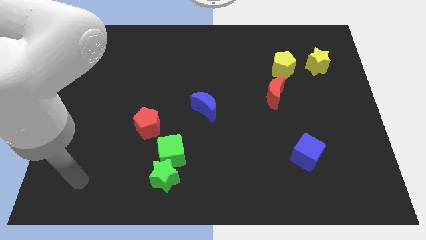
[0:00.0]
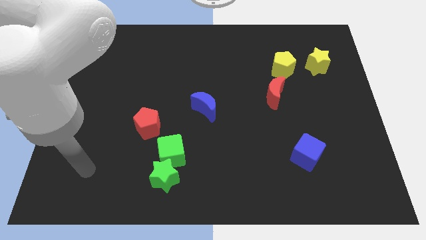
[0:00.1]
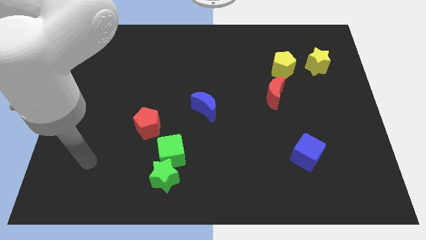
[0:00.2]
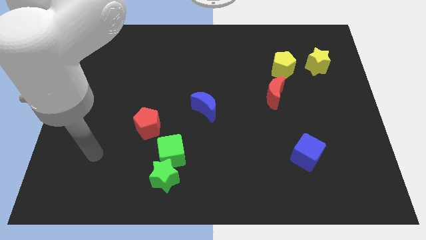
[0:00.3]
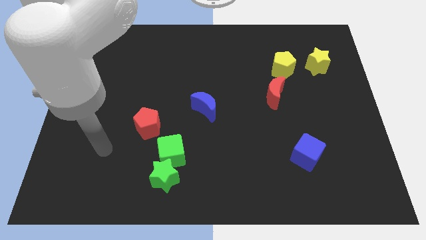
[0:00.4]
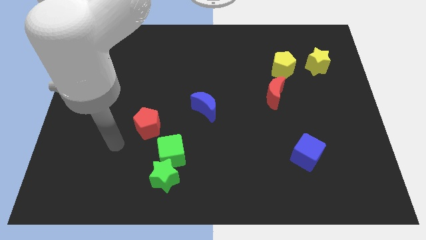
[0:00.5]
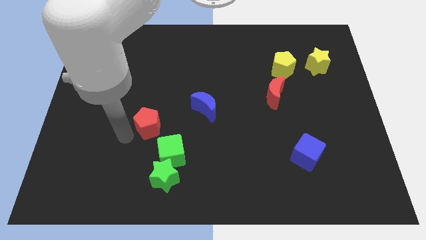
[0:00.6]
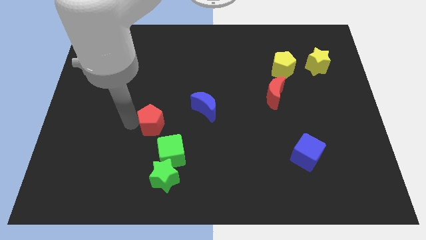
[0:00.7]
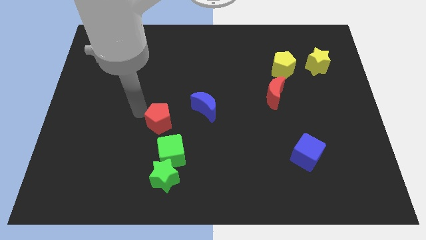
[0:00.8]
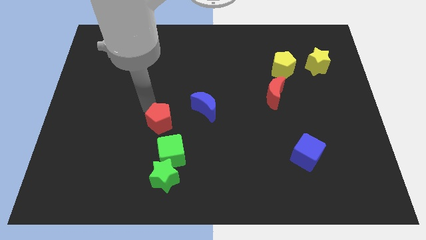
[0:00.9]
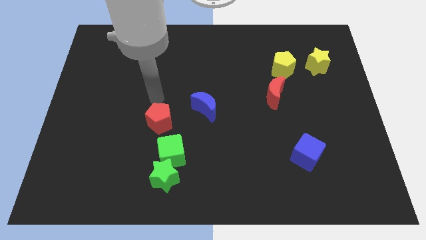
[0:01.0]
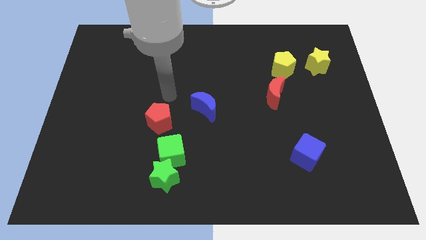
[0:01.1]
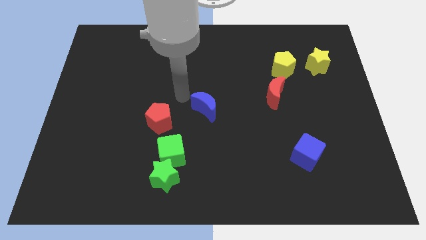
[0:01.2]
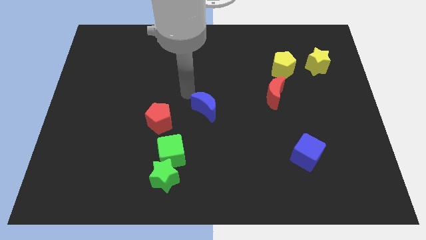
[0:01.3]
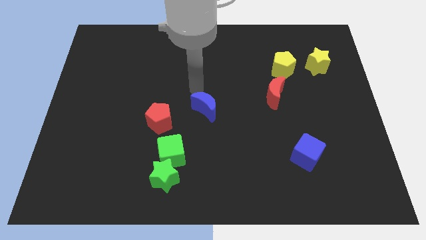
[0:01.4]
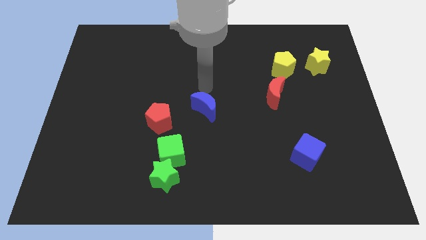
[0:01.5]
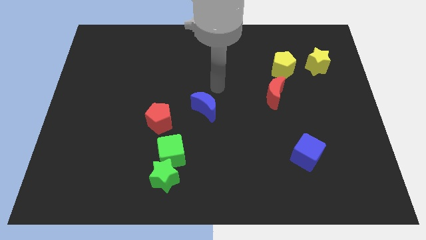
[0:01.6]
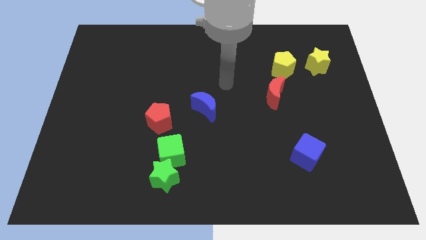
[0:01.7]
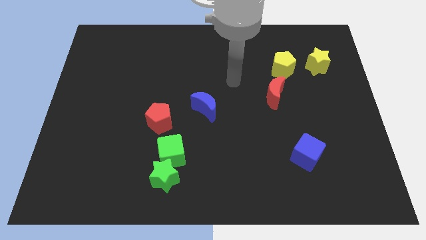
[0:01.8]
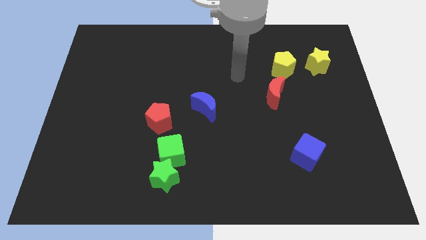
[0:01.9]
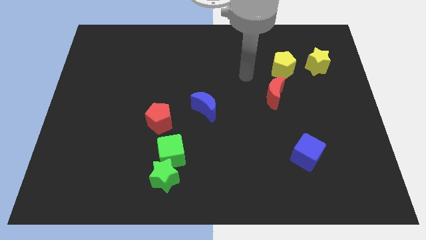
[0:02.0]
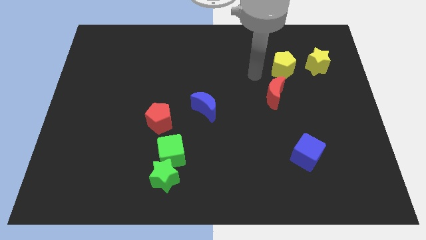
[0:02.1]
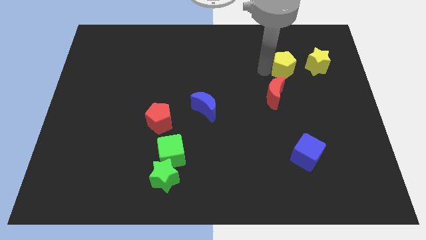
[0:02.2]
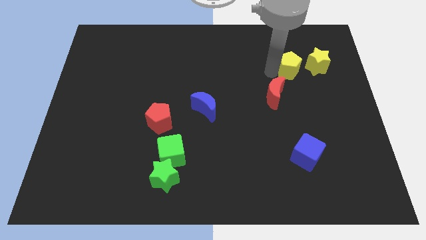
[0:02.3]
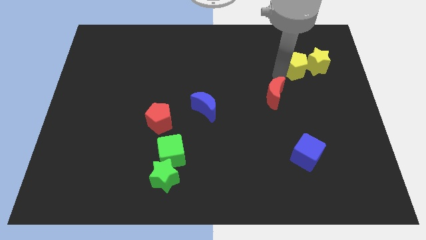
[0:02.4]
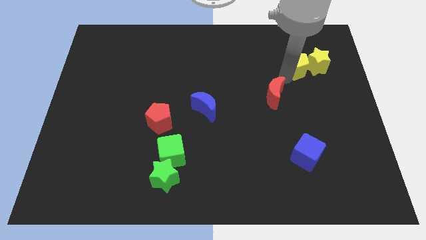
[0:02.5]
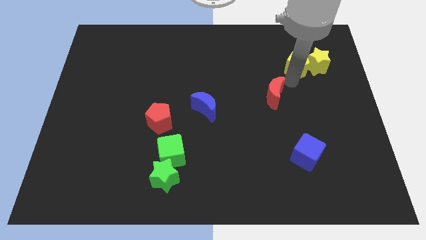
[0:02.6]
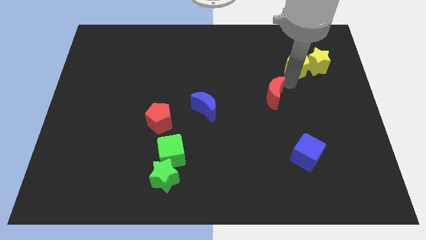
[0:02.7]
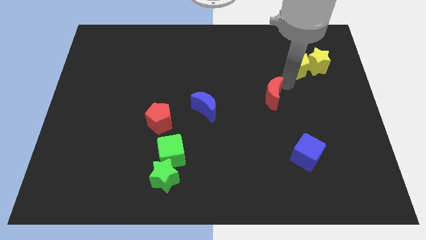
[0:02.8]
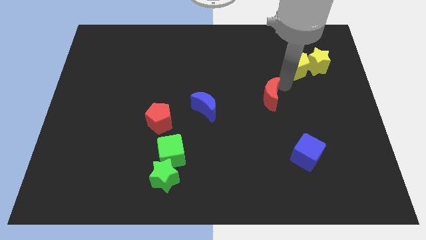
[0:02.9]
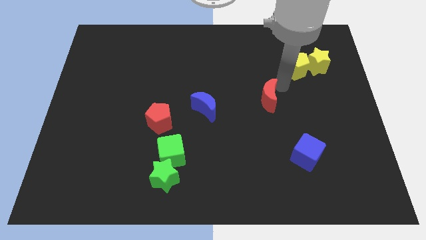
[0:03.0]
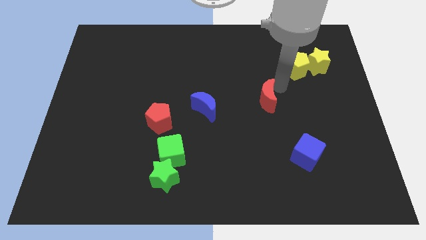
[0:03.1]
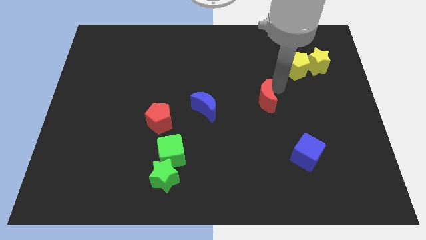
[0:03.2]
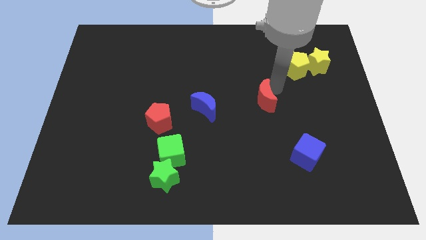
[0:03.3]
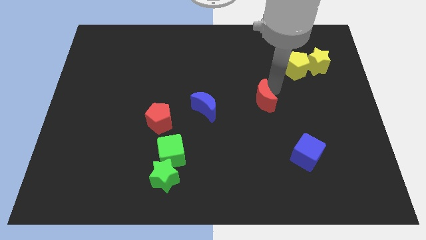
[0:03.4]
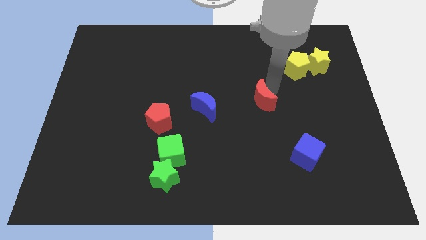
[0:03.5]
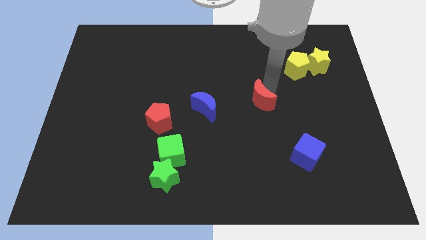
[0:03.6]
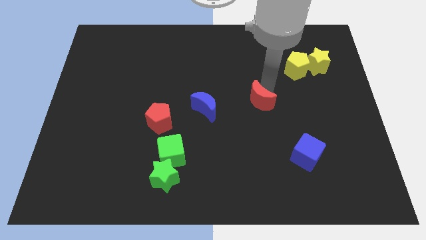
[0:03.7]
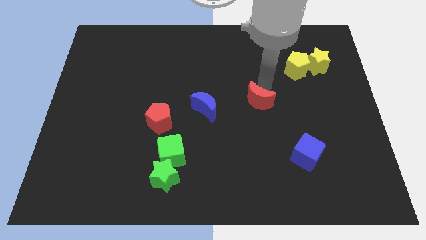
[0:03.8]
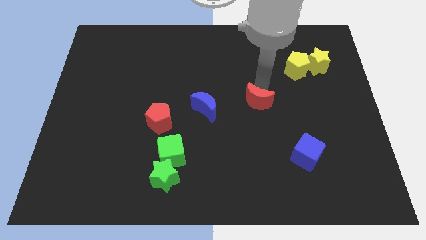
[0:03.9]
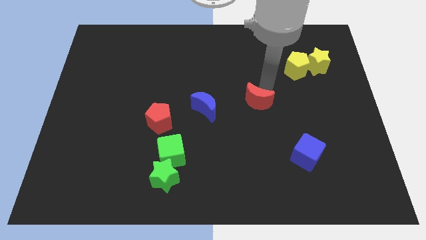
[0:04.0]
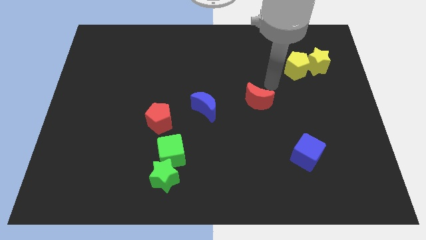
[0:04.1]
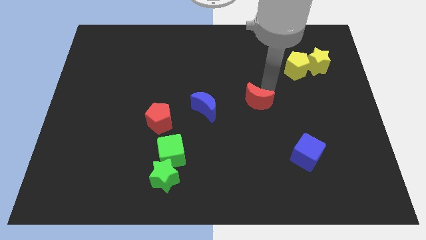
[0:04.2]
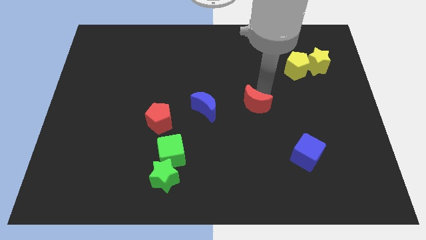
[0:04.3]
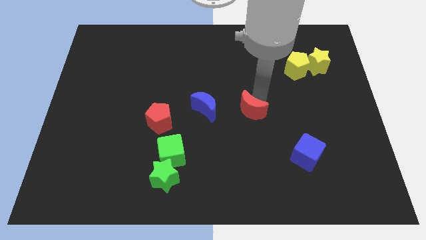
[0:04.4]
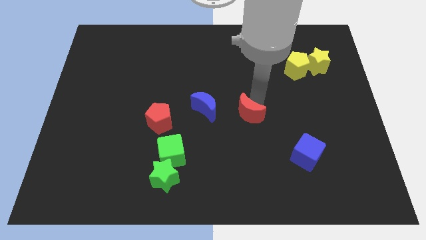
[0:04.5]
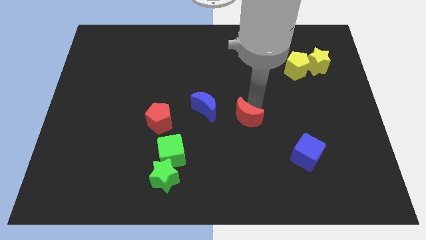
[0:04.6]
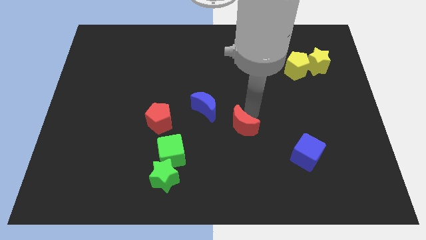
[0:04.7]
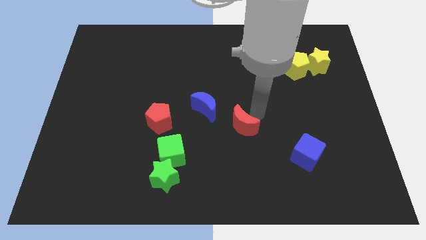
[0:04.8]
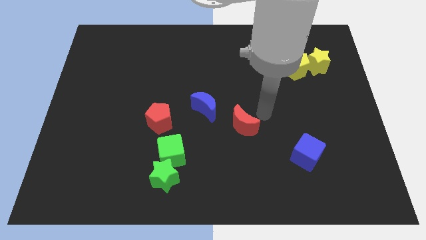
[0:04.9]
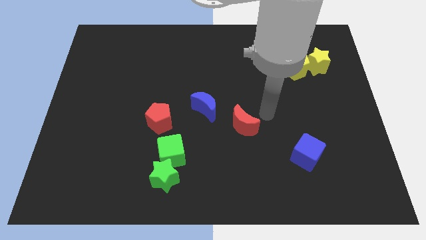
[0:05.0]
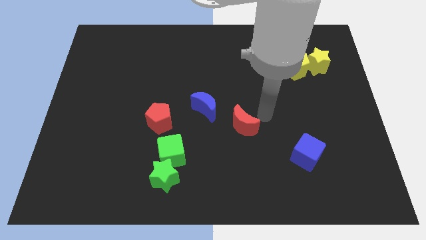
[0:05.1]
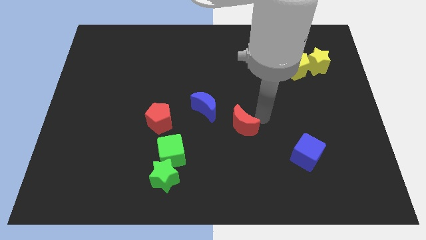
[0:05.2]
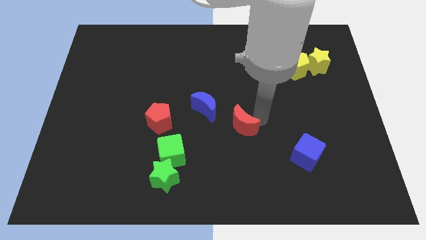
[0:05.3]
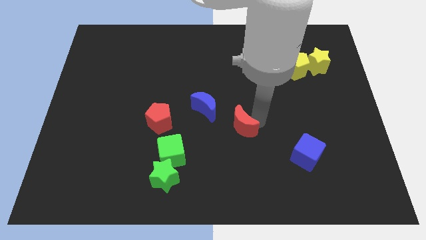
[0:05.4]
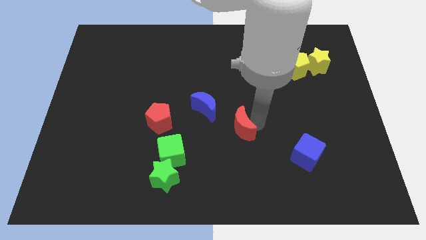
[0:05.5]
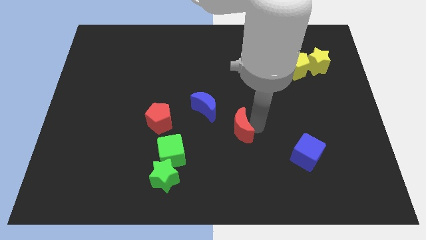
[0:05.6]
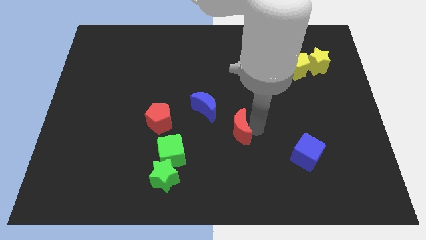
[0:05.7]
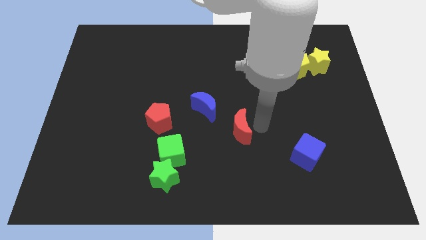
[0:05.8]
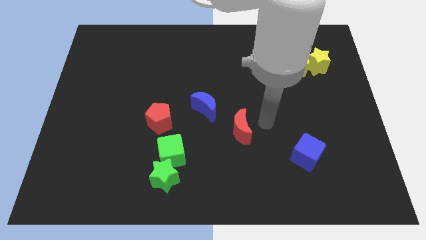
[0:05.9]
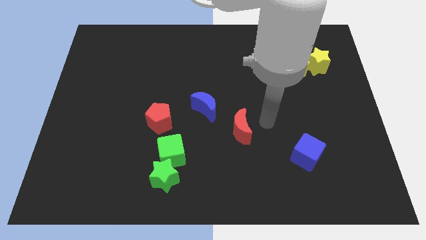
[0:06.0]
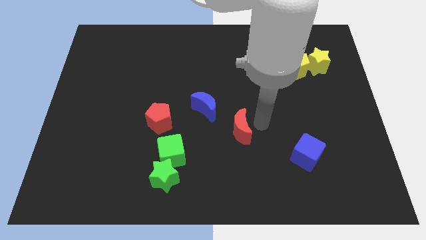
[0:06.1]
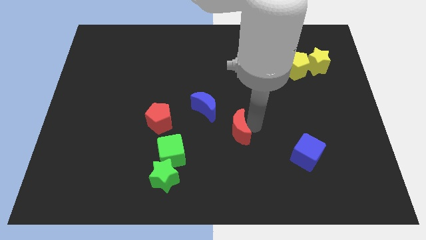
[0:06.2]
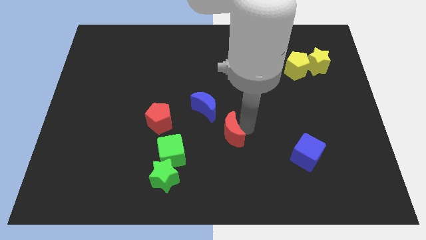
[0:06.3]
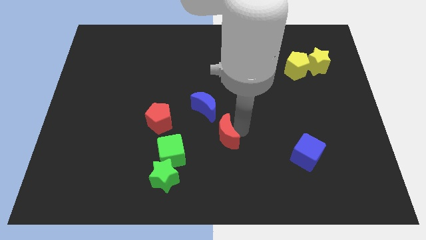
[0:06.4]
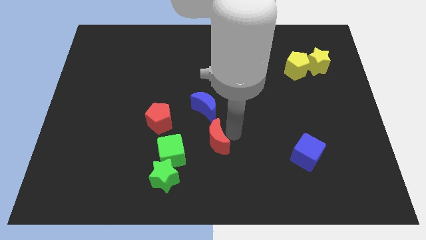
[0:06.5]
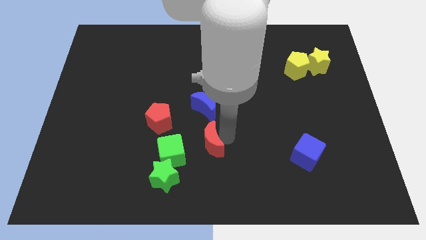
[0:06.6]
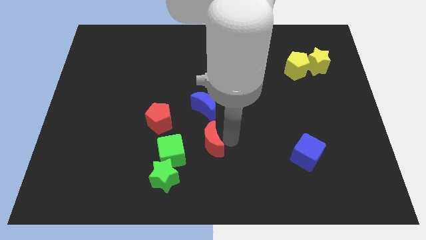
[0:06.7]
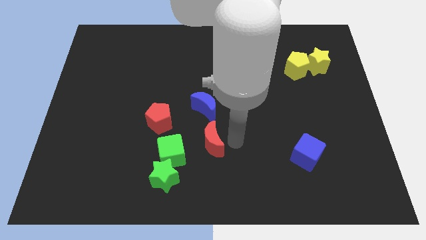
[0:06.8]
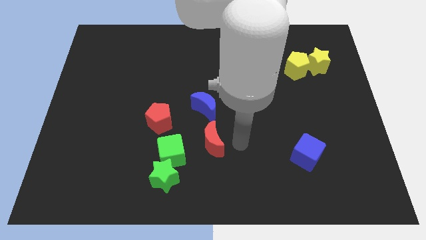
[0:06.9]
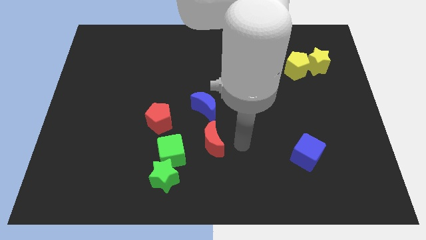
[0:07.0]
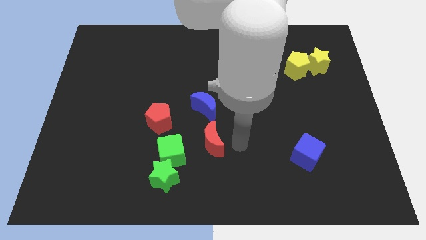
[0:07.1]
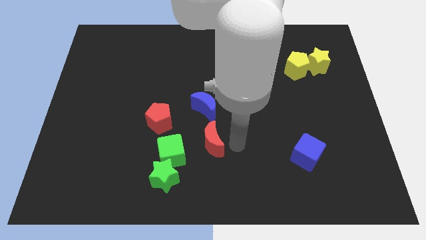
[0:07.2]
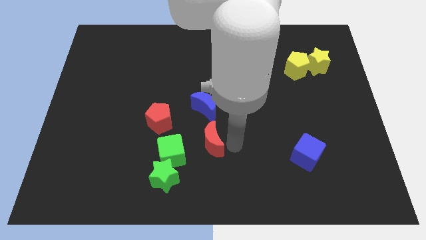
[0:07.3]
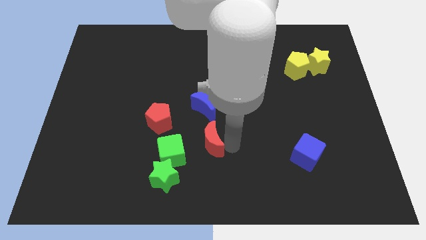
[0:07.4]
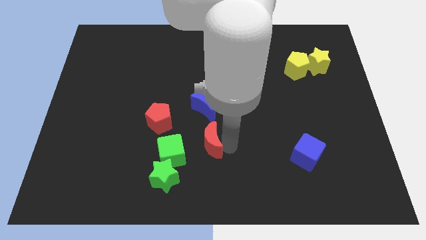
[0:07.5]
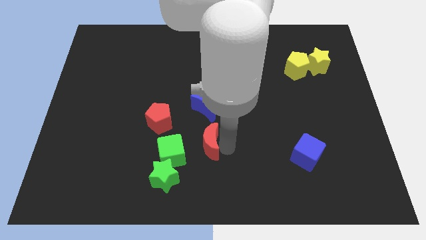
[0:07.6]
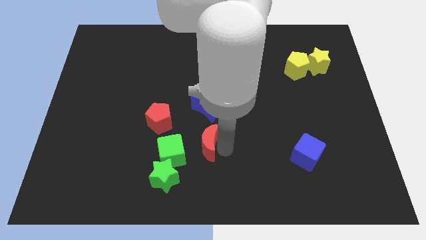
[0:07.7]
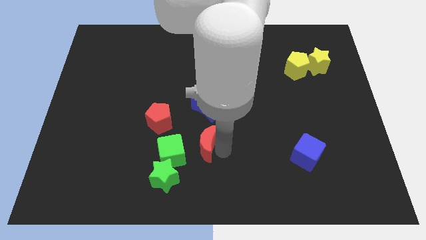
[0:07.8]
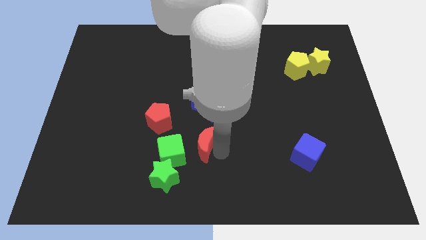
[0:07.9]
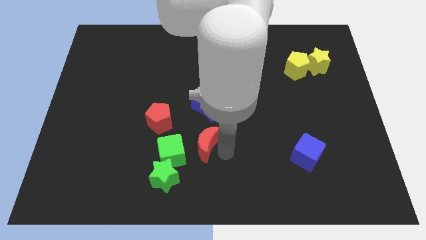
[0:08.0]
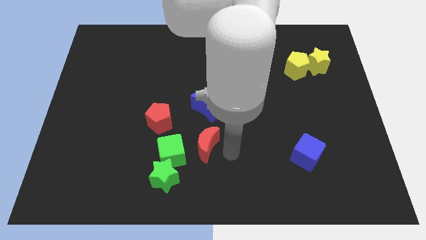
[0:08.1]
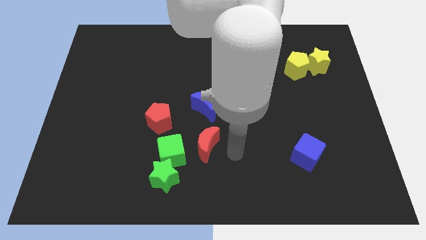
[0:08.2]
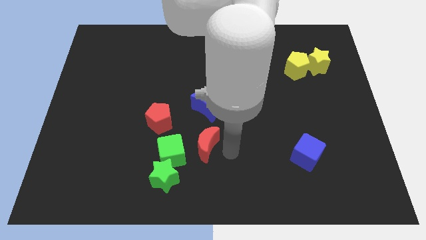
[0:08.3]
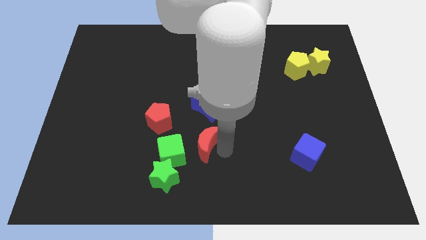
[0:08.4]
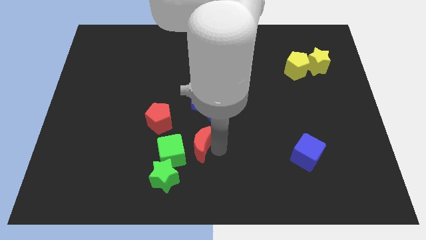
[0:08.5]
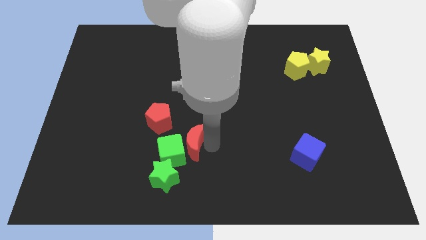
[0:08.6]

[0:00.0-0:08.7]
push the red moon towards the green cube
